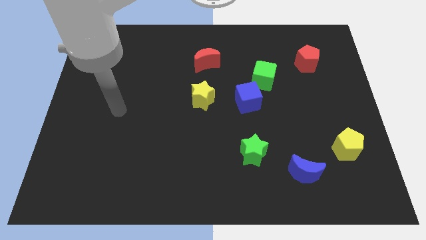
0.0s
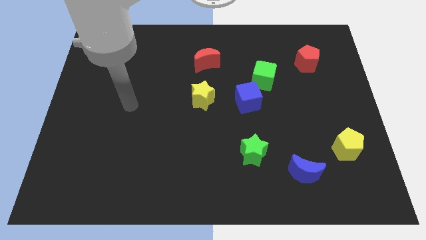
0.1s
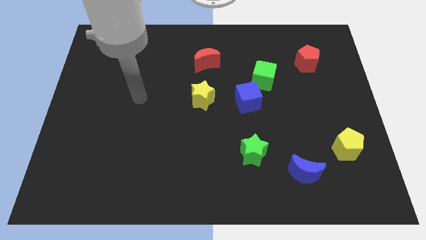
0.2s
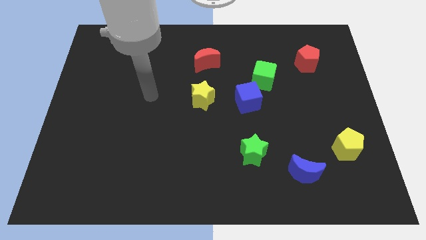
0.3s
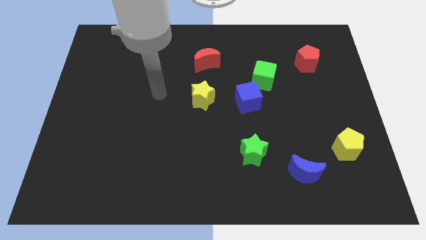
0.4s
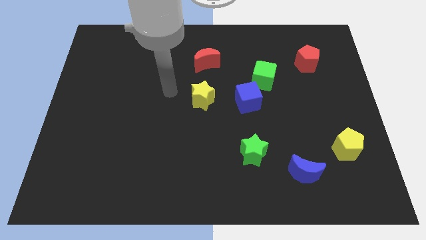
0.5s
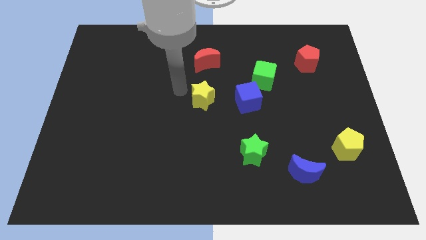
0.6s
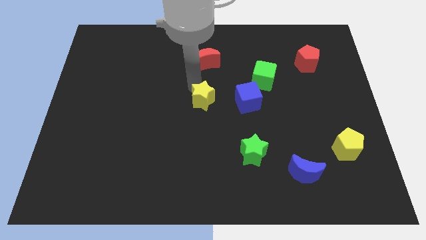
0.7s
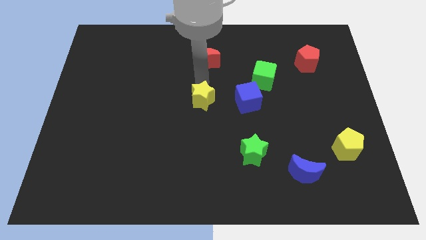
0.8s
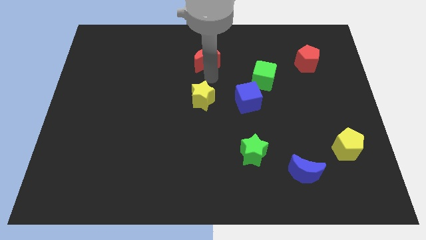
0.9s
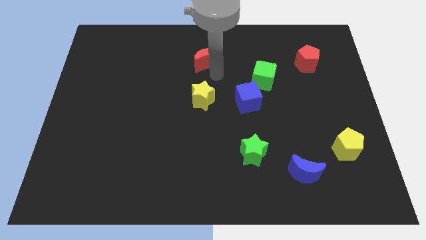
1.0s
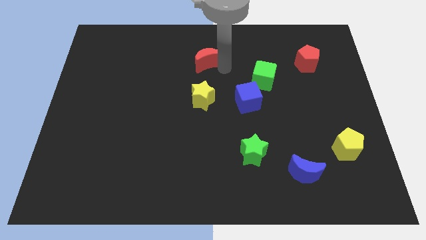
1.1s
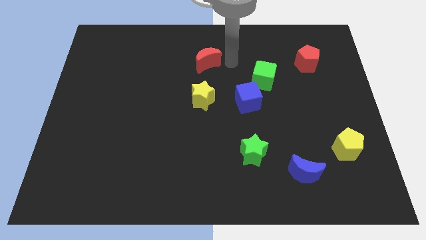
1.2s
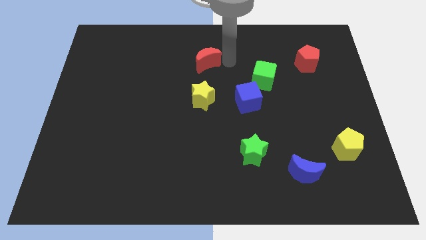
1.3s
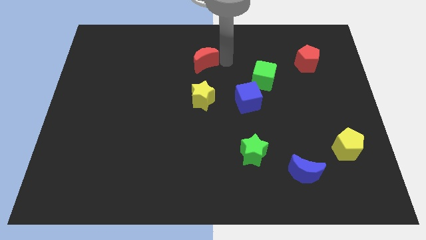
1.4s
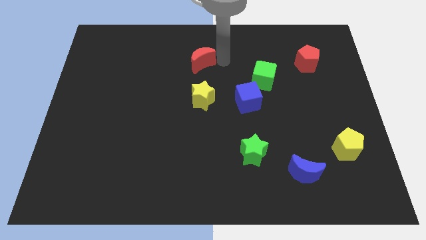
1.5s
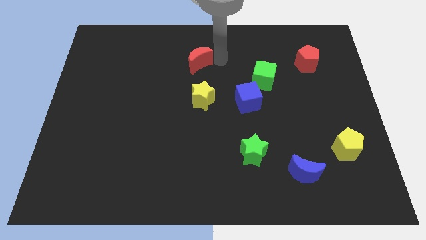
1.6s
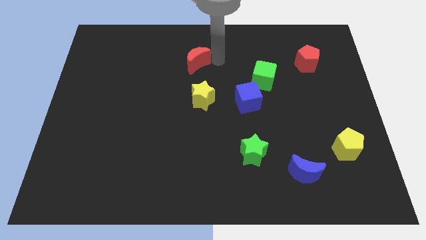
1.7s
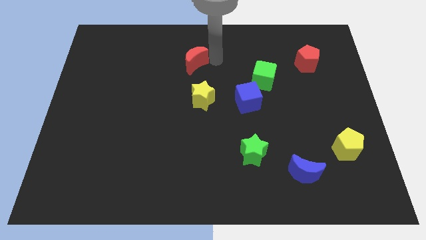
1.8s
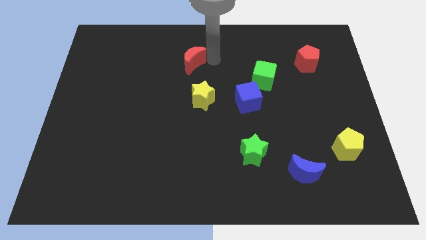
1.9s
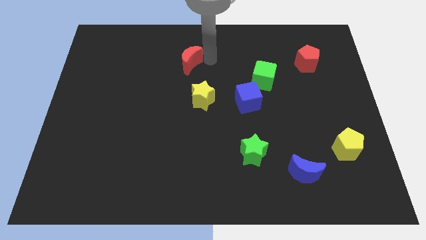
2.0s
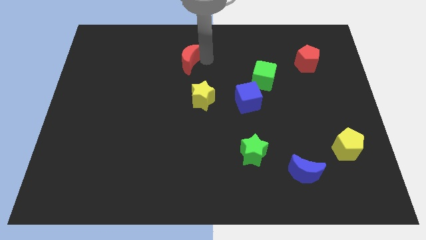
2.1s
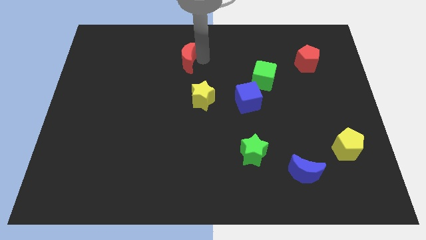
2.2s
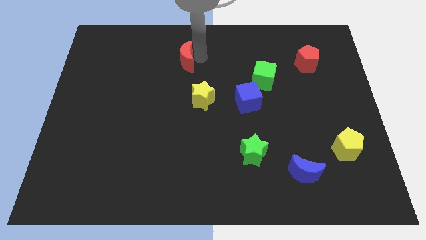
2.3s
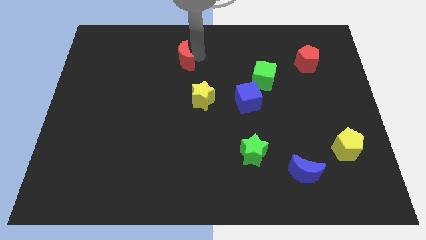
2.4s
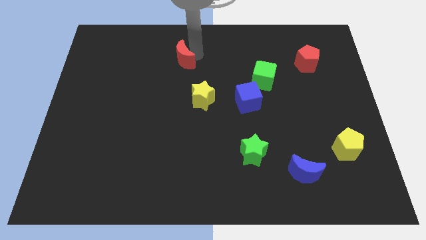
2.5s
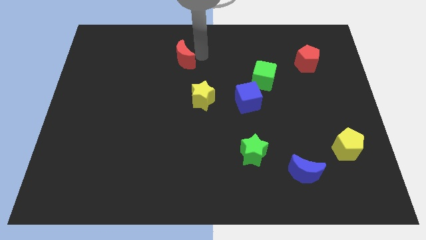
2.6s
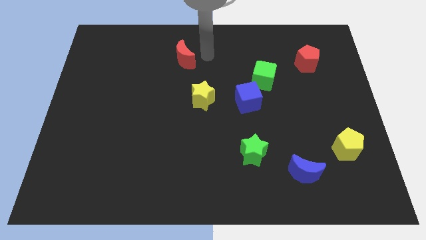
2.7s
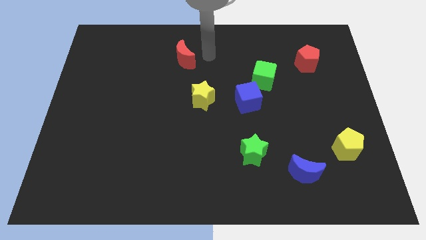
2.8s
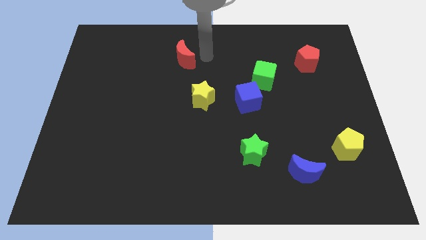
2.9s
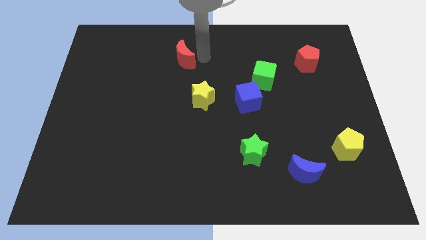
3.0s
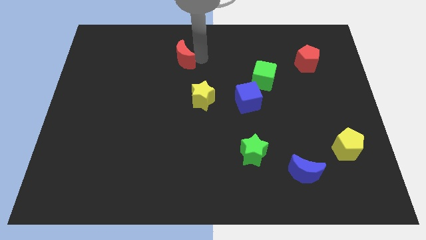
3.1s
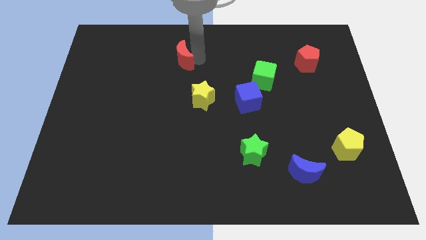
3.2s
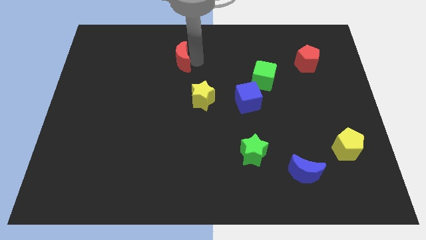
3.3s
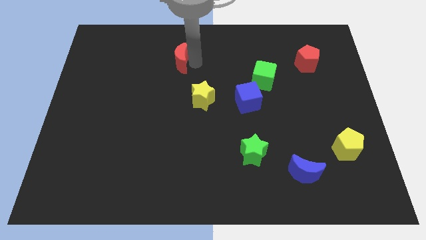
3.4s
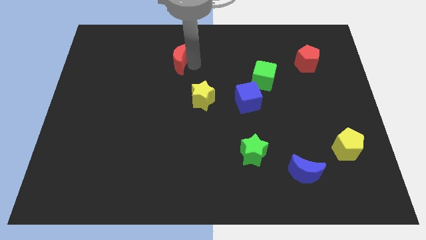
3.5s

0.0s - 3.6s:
move the red moon somewhat left

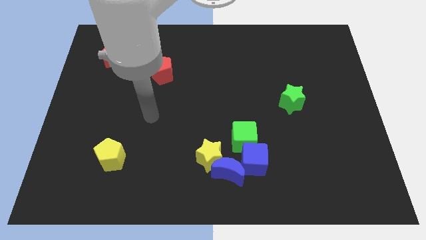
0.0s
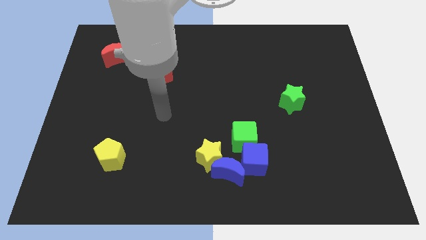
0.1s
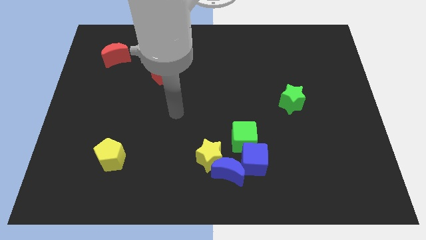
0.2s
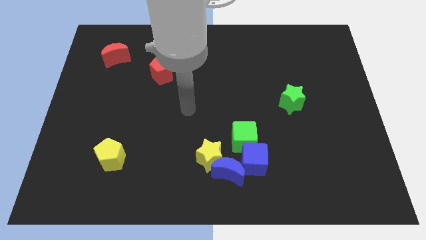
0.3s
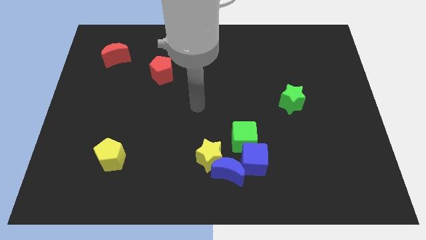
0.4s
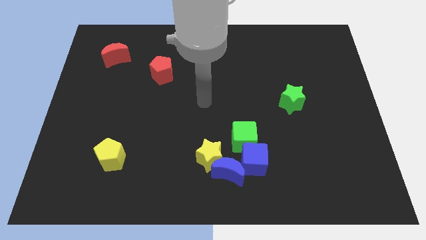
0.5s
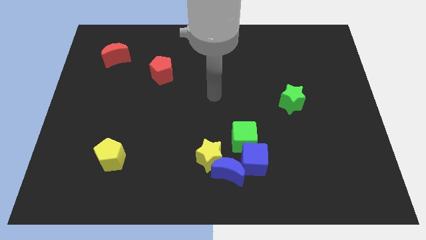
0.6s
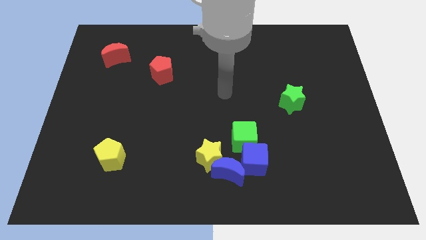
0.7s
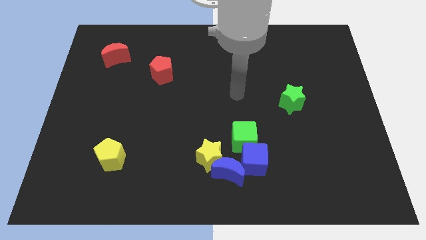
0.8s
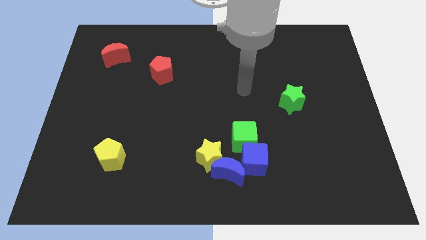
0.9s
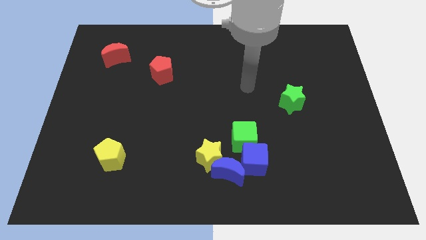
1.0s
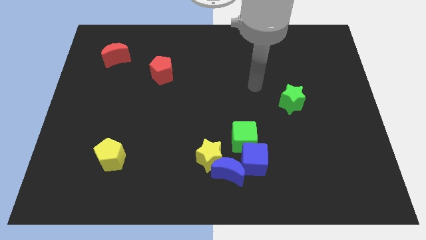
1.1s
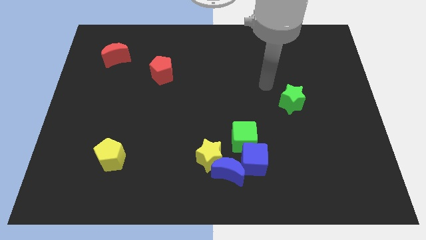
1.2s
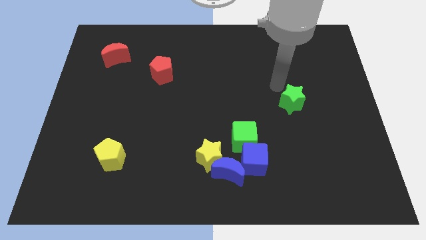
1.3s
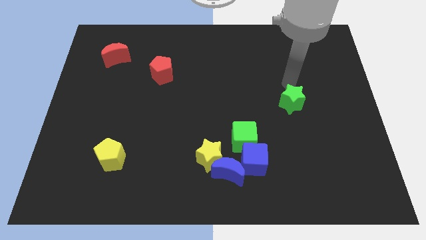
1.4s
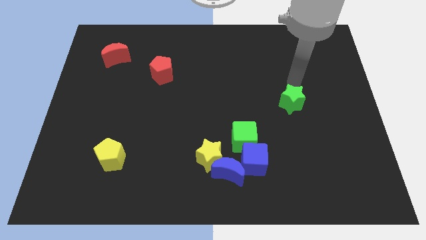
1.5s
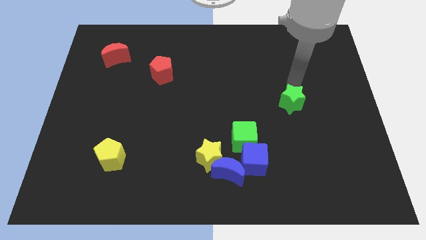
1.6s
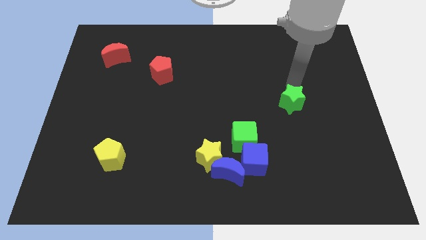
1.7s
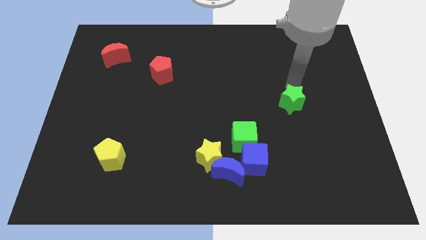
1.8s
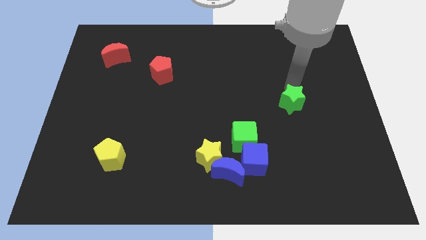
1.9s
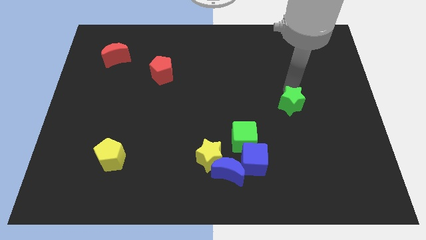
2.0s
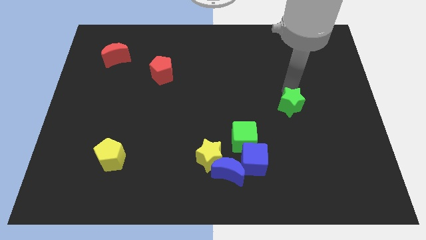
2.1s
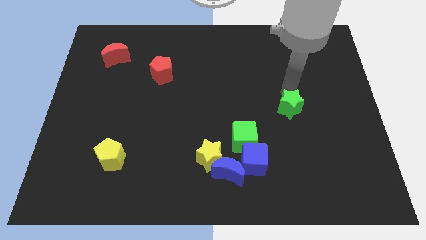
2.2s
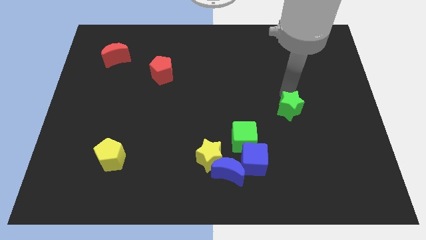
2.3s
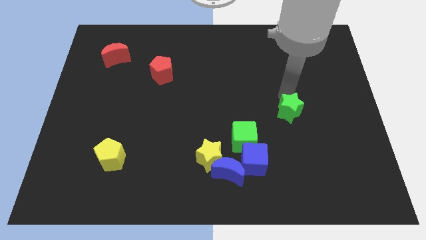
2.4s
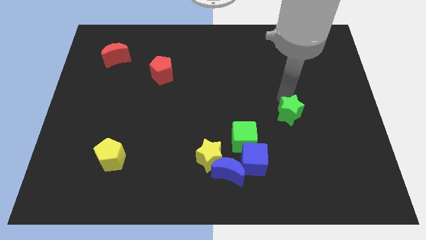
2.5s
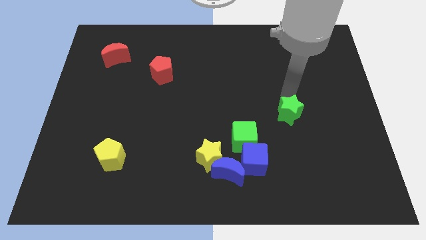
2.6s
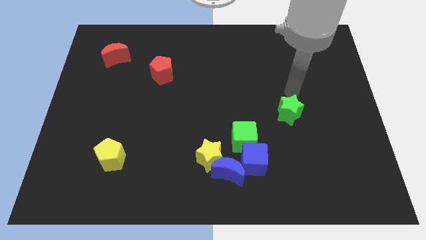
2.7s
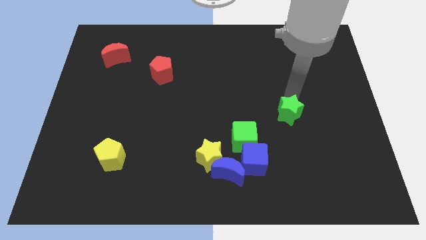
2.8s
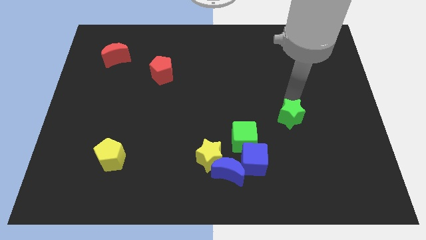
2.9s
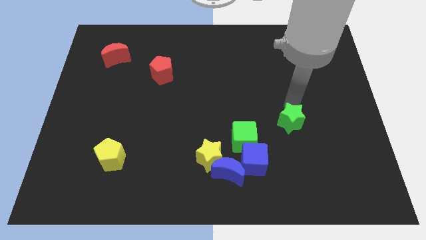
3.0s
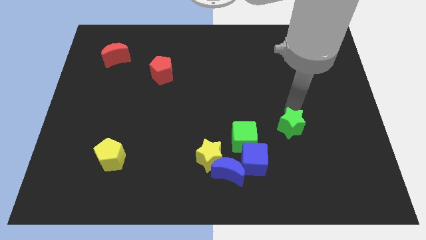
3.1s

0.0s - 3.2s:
slide the green star downwards a bit

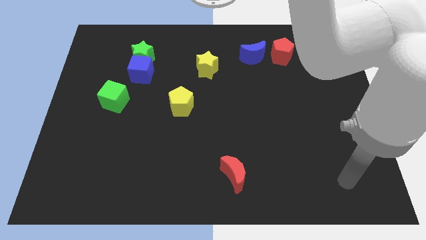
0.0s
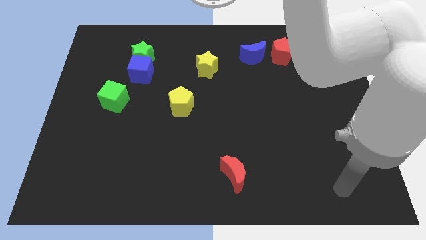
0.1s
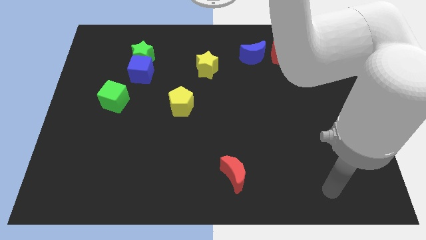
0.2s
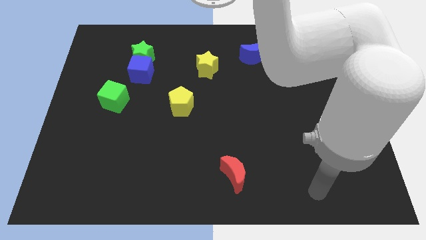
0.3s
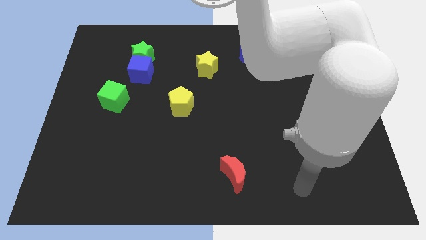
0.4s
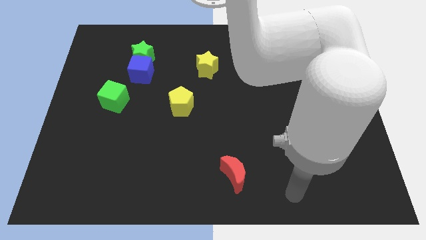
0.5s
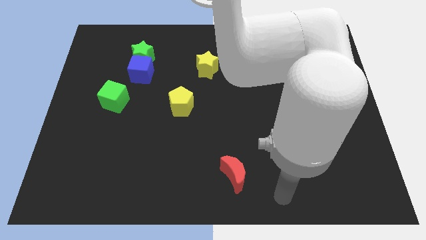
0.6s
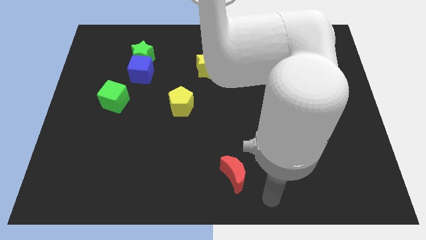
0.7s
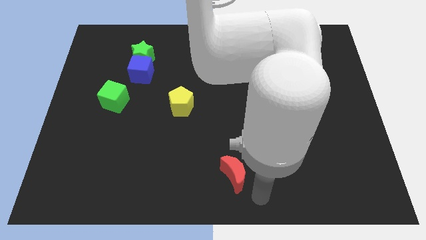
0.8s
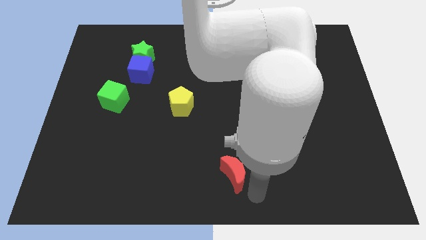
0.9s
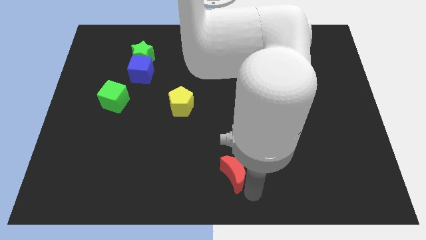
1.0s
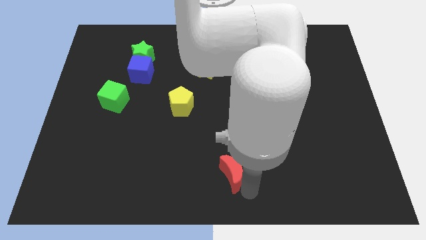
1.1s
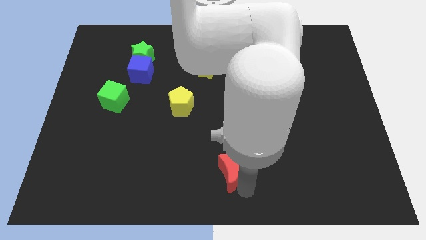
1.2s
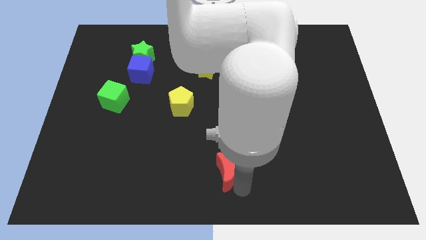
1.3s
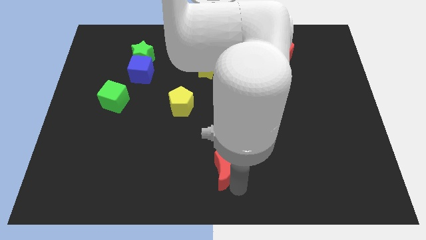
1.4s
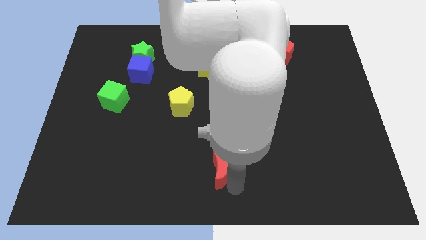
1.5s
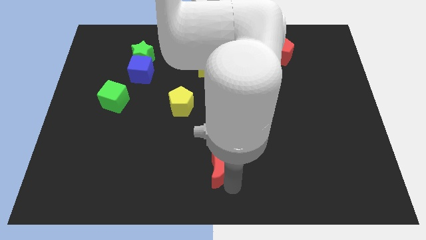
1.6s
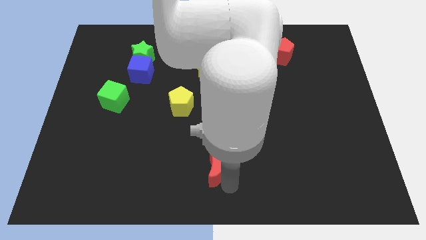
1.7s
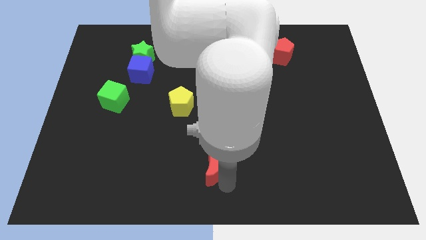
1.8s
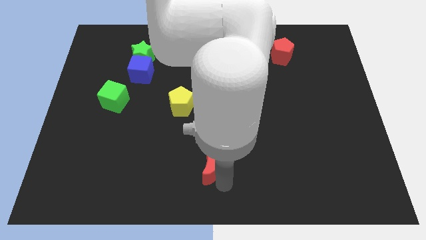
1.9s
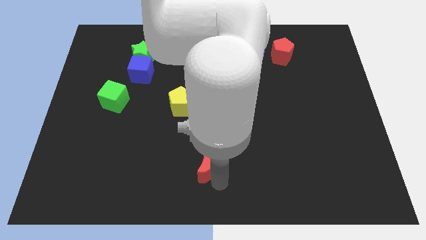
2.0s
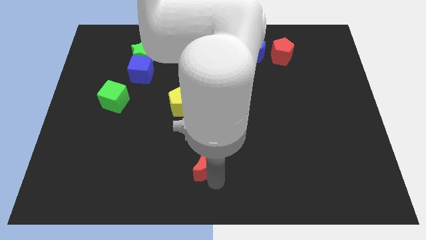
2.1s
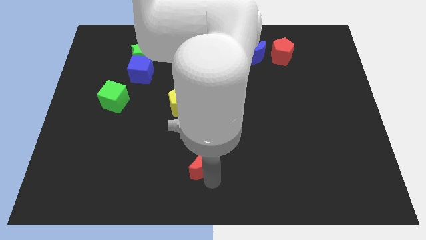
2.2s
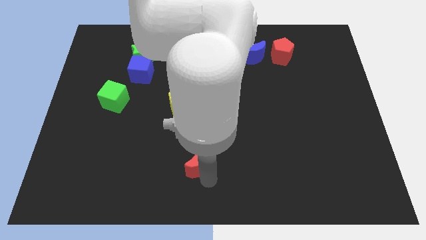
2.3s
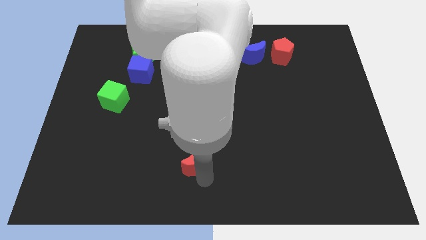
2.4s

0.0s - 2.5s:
slide the red moon up and to the left diagonally slightly
